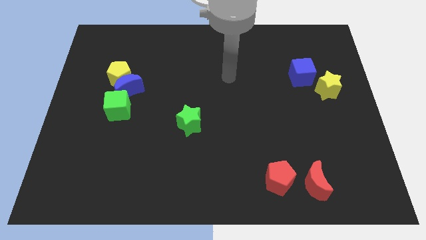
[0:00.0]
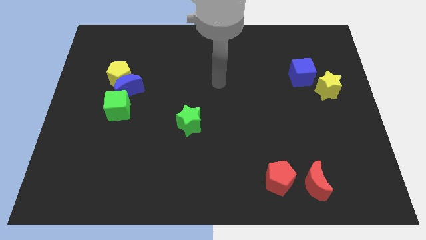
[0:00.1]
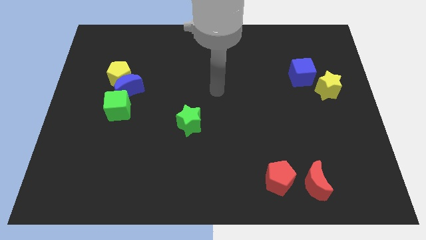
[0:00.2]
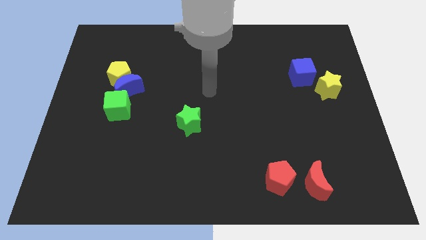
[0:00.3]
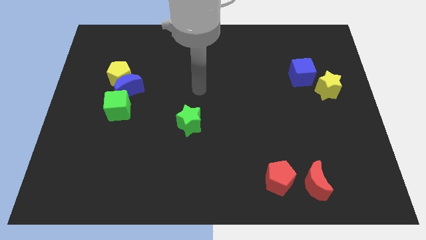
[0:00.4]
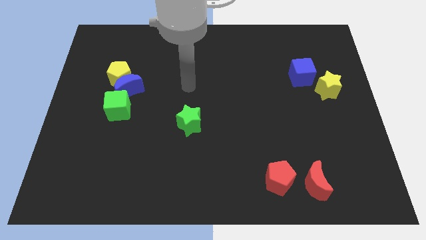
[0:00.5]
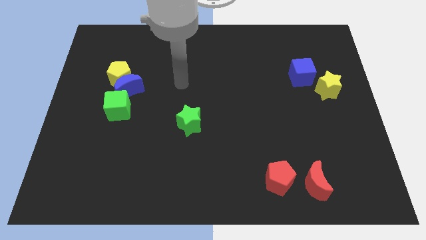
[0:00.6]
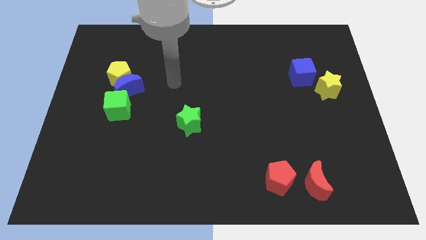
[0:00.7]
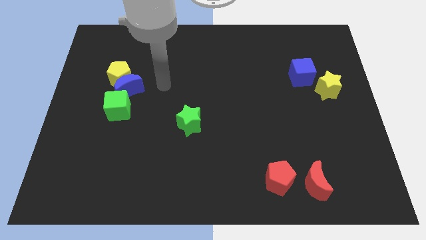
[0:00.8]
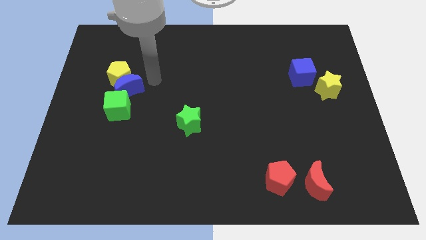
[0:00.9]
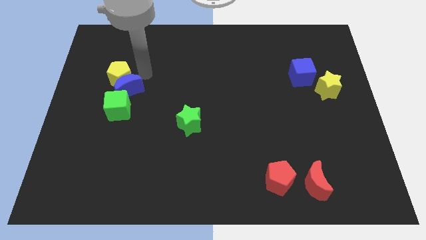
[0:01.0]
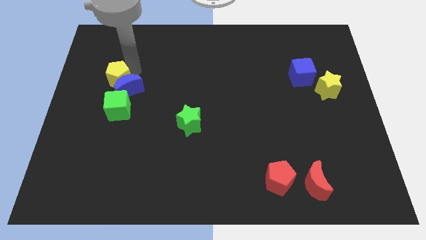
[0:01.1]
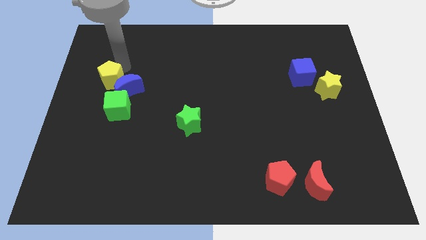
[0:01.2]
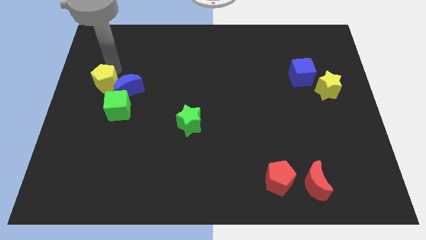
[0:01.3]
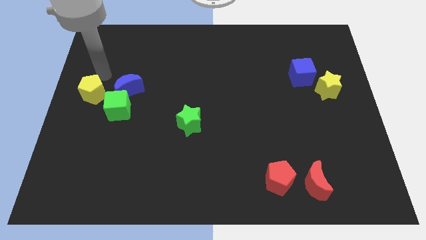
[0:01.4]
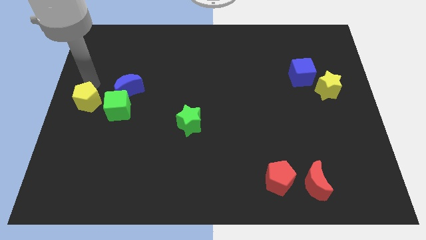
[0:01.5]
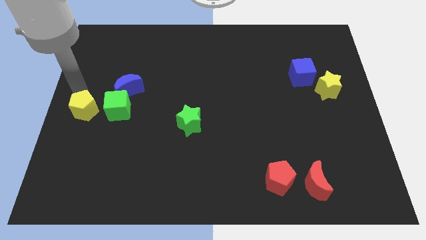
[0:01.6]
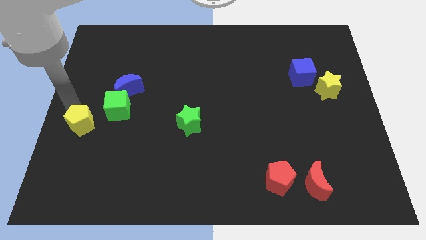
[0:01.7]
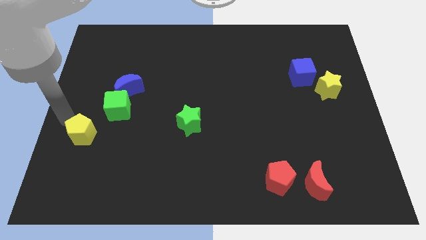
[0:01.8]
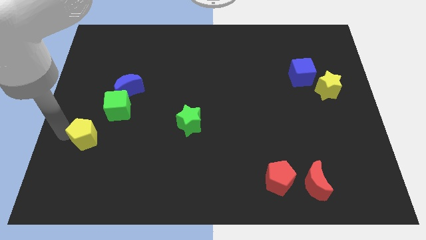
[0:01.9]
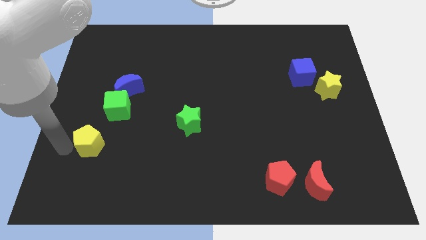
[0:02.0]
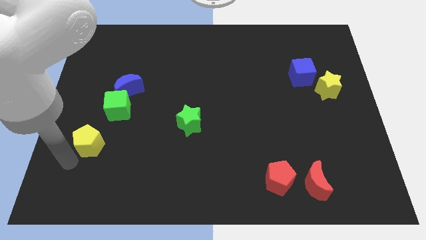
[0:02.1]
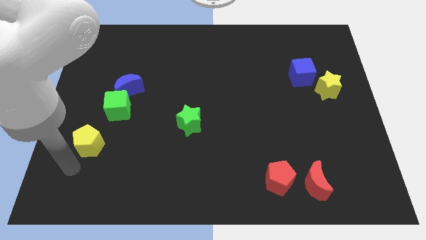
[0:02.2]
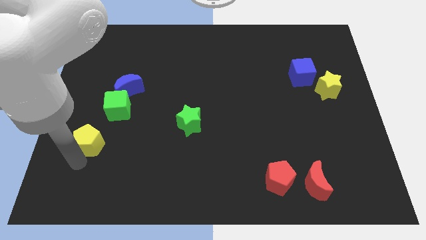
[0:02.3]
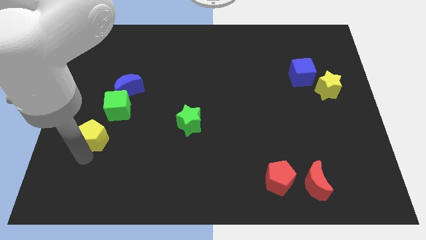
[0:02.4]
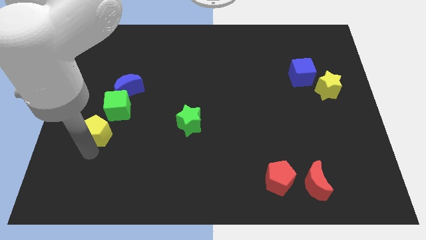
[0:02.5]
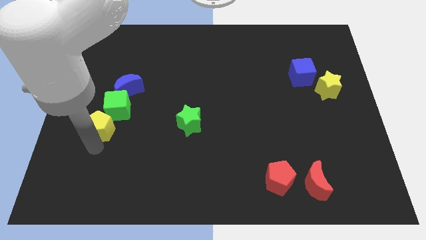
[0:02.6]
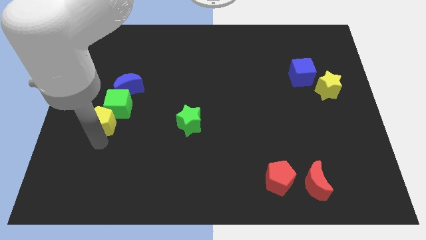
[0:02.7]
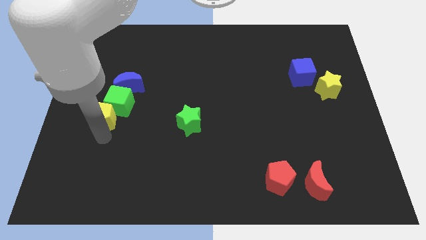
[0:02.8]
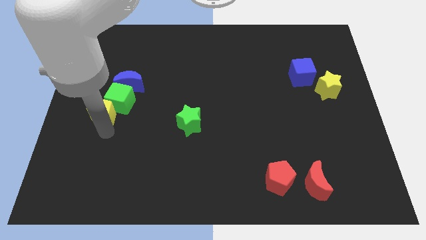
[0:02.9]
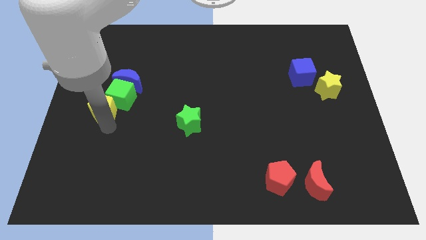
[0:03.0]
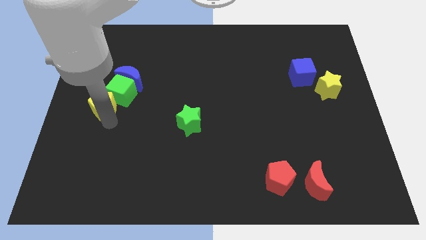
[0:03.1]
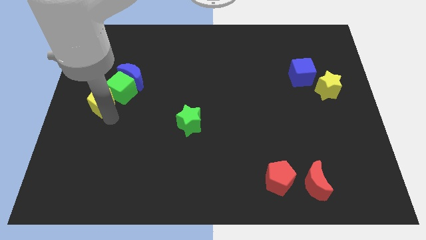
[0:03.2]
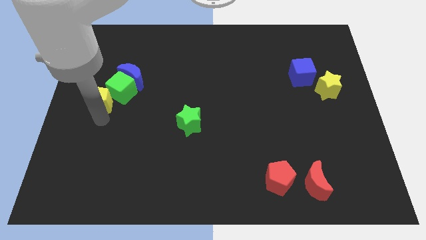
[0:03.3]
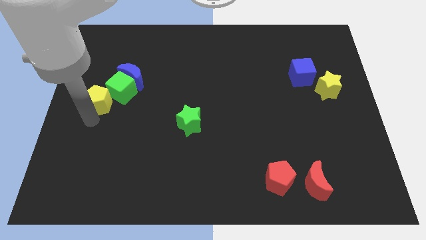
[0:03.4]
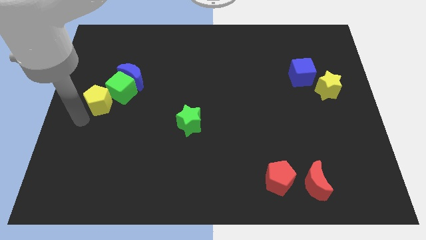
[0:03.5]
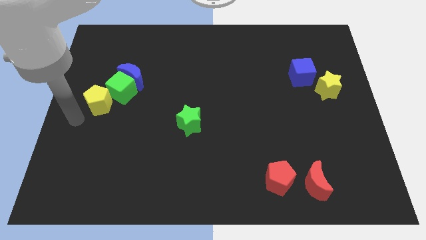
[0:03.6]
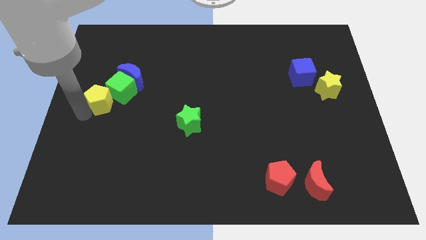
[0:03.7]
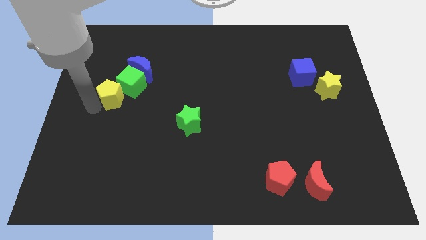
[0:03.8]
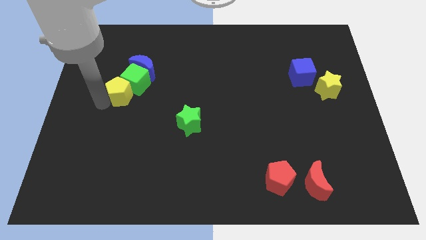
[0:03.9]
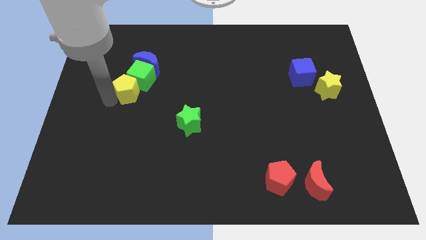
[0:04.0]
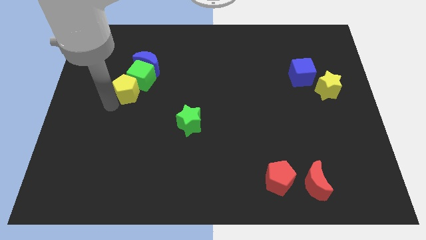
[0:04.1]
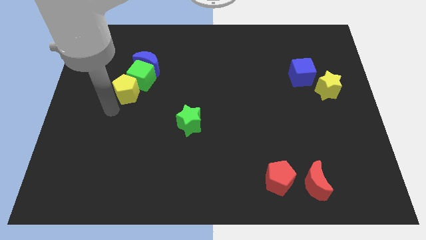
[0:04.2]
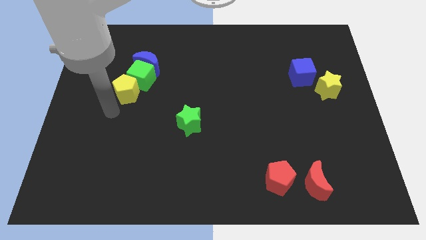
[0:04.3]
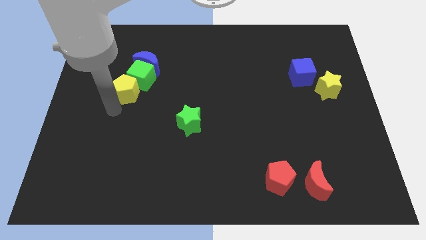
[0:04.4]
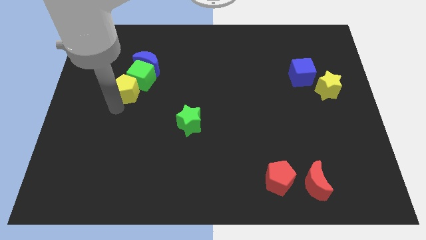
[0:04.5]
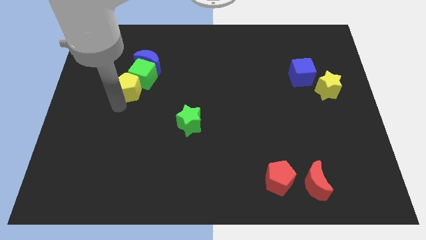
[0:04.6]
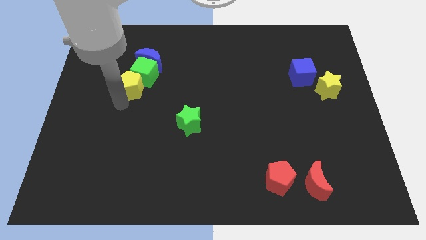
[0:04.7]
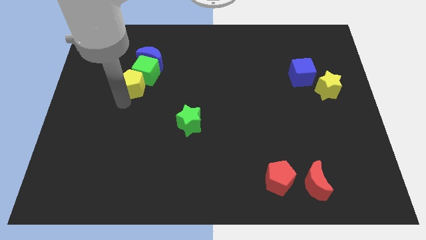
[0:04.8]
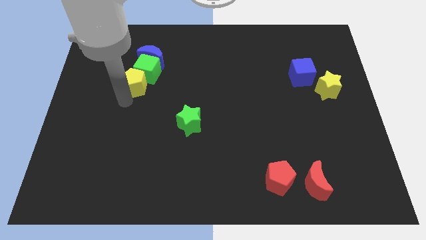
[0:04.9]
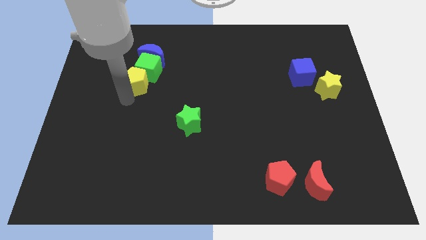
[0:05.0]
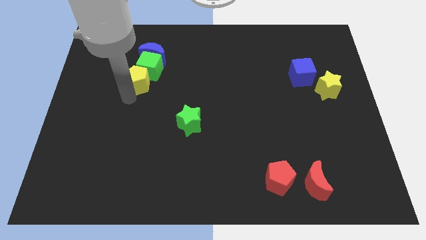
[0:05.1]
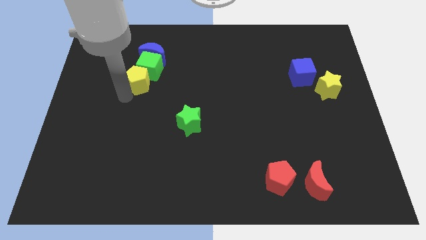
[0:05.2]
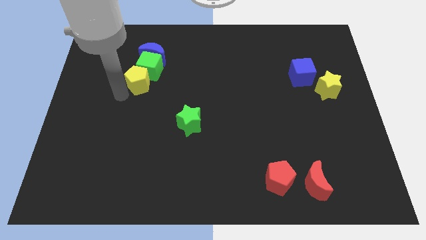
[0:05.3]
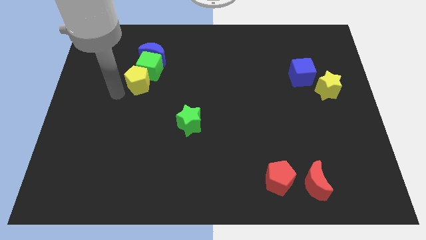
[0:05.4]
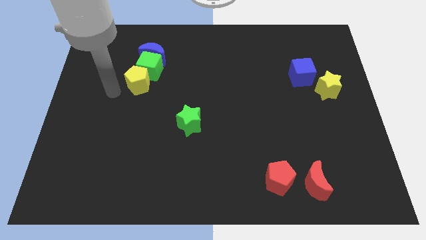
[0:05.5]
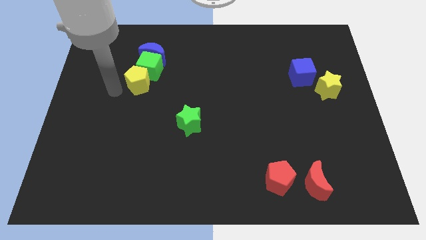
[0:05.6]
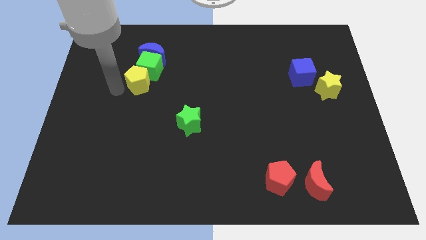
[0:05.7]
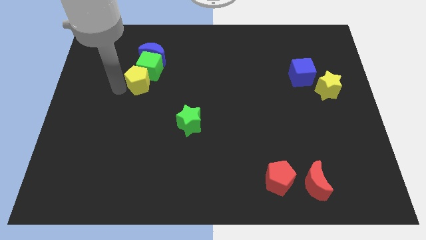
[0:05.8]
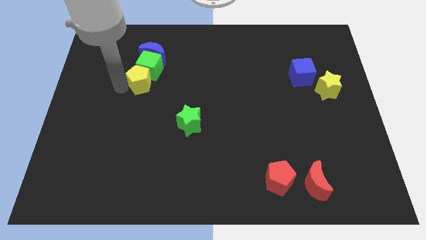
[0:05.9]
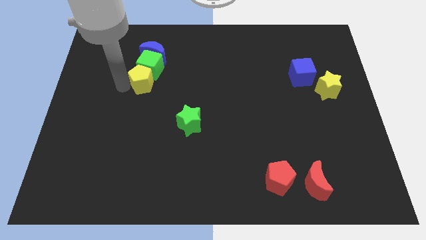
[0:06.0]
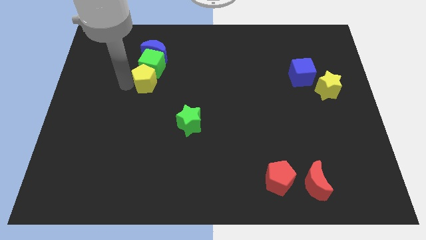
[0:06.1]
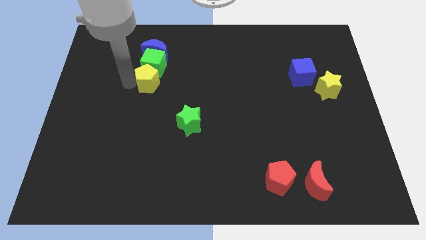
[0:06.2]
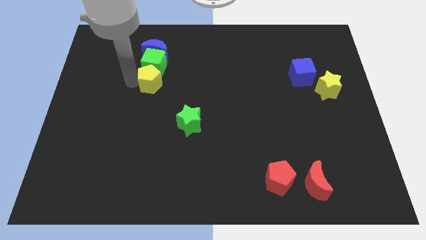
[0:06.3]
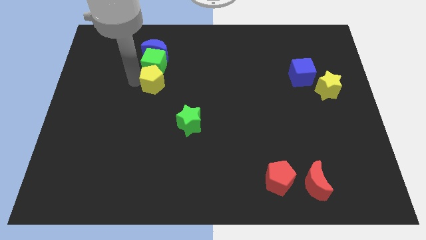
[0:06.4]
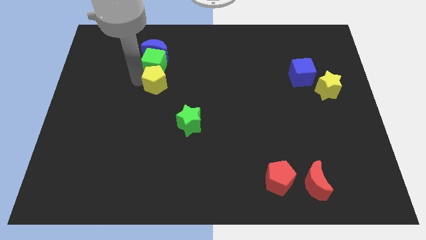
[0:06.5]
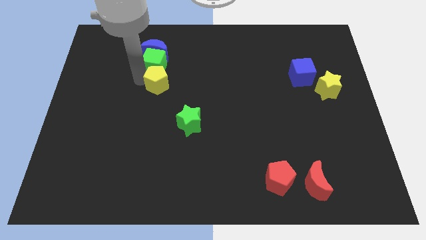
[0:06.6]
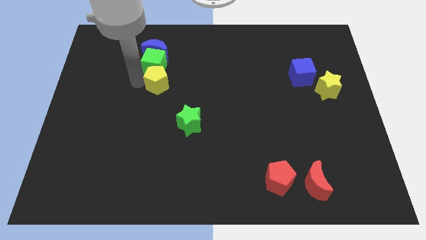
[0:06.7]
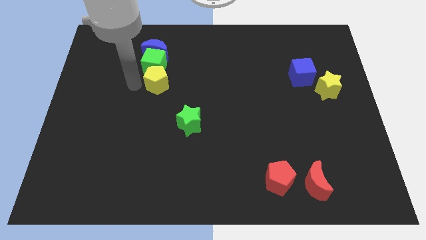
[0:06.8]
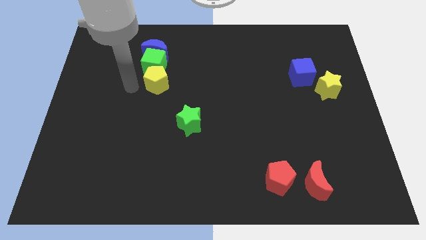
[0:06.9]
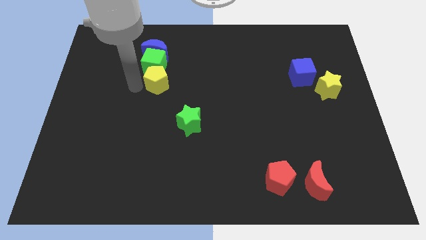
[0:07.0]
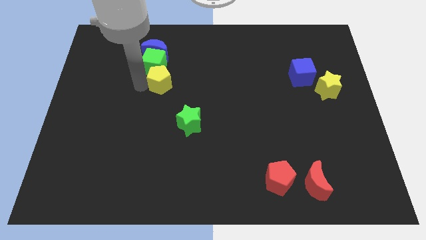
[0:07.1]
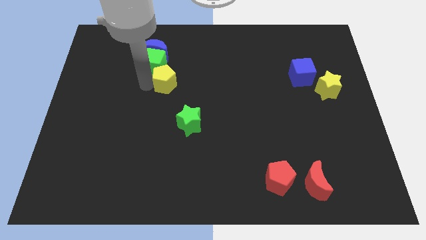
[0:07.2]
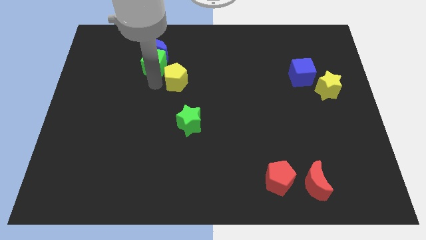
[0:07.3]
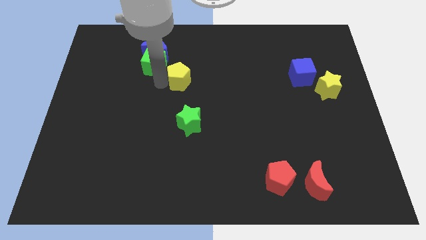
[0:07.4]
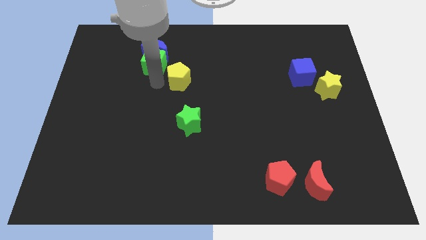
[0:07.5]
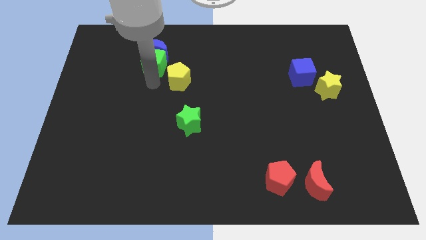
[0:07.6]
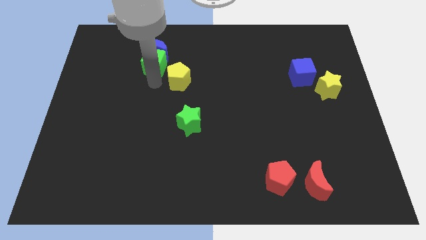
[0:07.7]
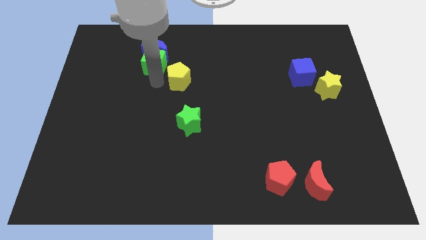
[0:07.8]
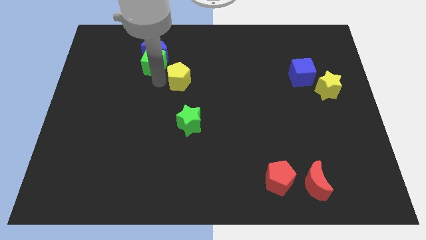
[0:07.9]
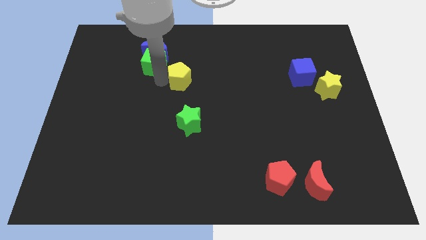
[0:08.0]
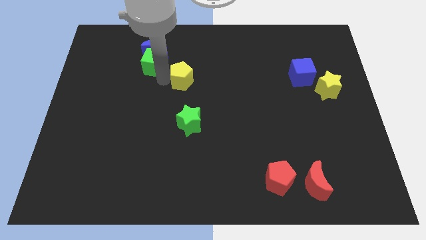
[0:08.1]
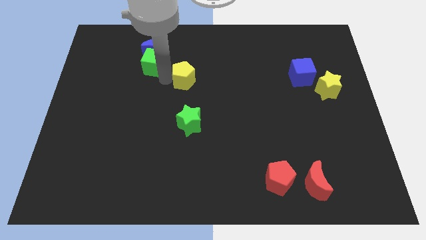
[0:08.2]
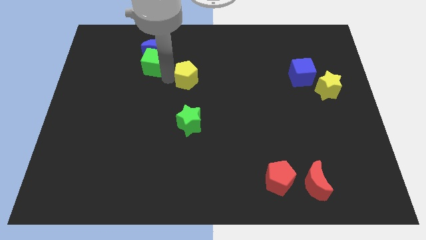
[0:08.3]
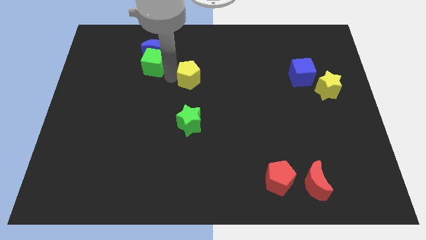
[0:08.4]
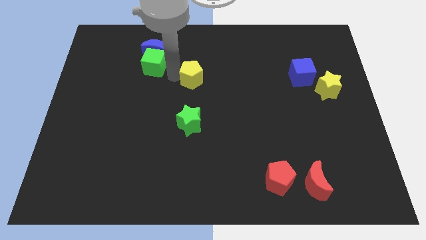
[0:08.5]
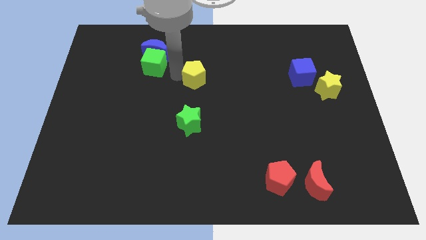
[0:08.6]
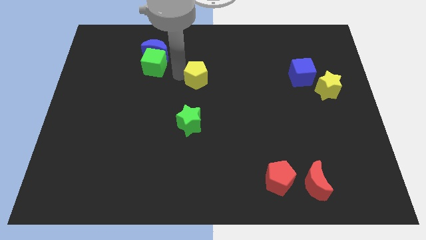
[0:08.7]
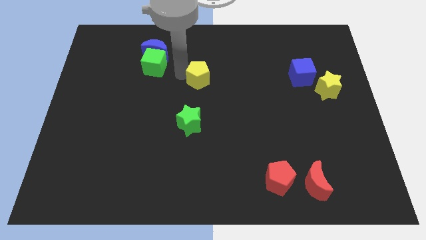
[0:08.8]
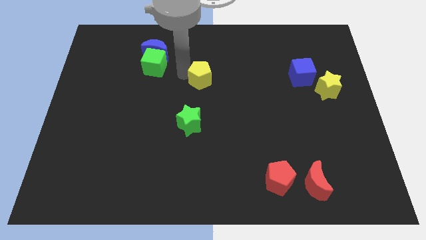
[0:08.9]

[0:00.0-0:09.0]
slide the yellow pentagon to the right
